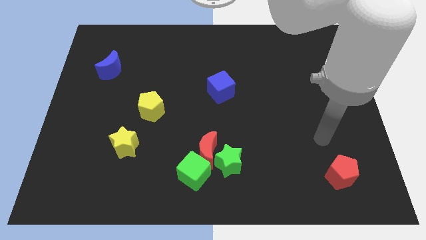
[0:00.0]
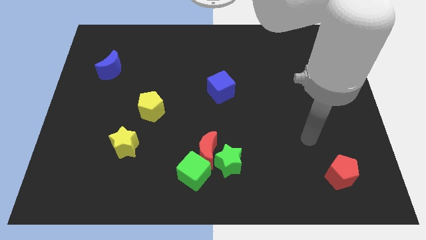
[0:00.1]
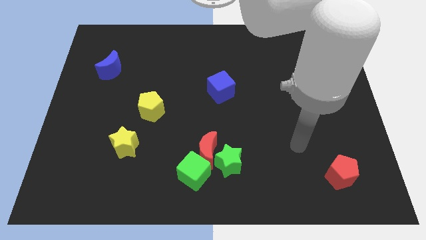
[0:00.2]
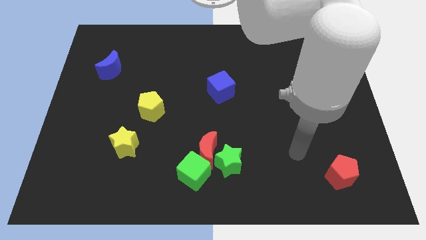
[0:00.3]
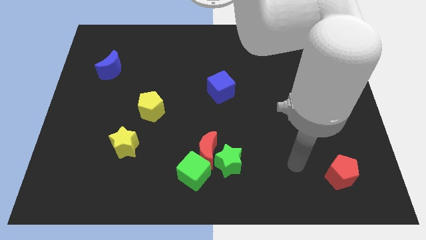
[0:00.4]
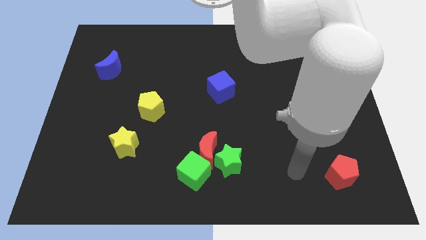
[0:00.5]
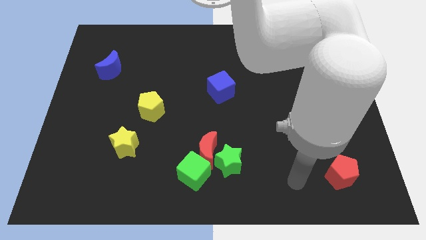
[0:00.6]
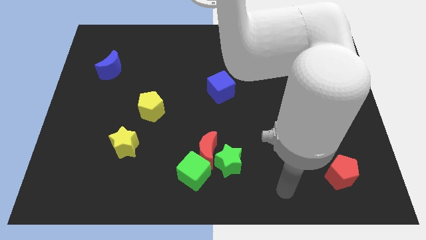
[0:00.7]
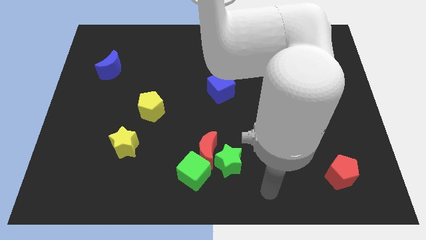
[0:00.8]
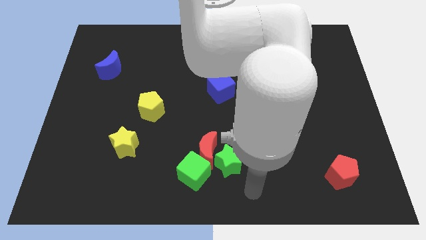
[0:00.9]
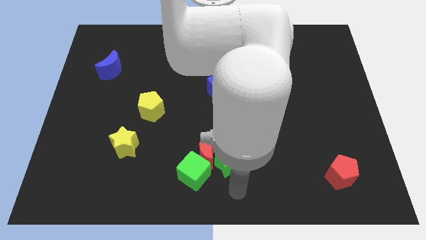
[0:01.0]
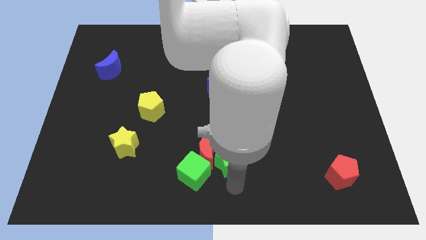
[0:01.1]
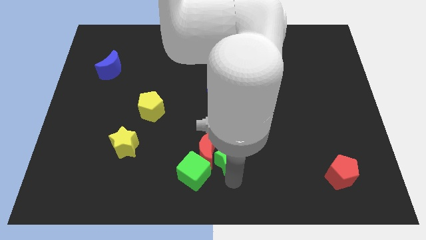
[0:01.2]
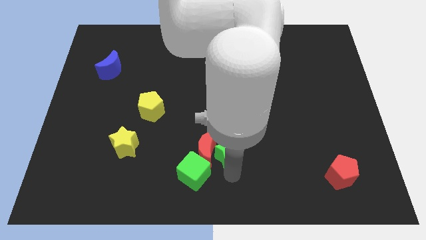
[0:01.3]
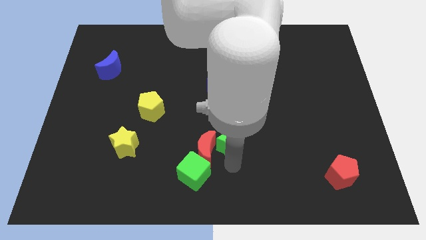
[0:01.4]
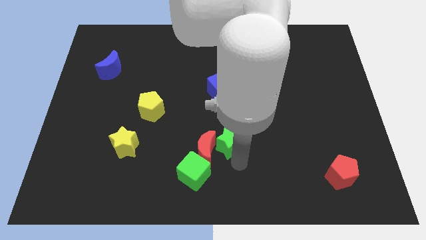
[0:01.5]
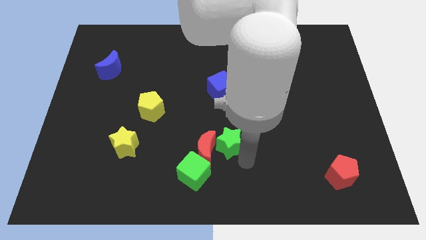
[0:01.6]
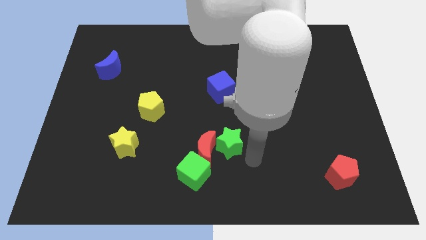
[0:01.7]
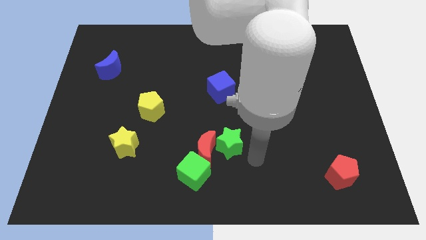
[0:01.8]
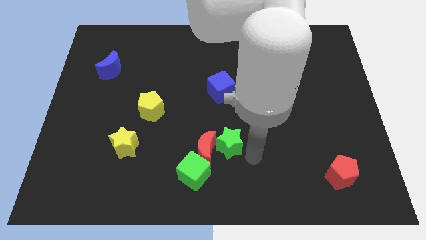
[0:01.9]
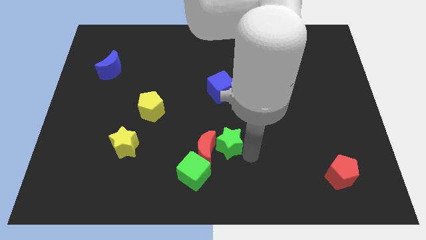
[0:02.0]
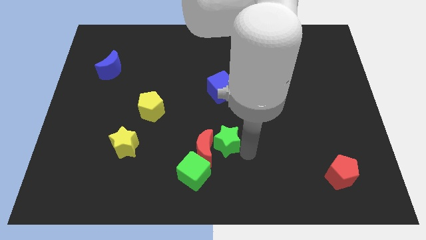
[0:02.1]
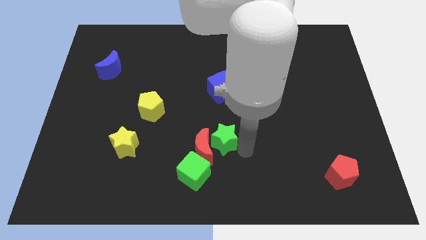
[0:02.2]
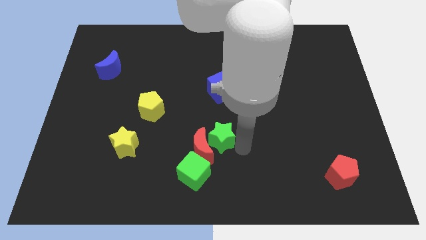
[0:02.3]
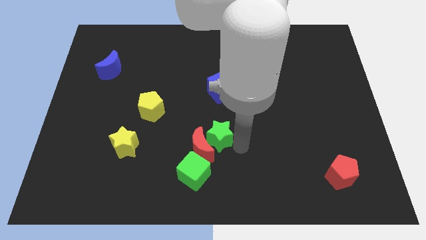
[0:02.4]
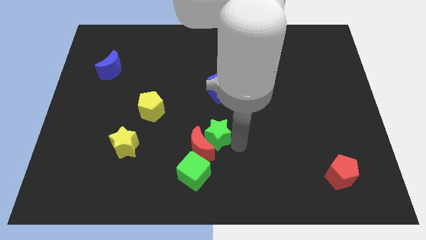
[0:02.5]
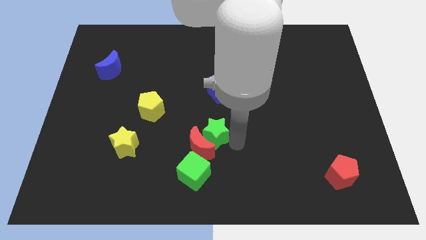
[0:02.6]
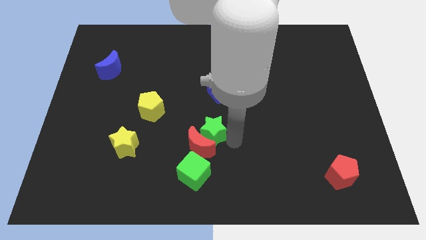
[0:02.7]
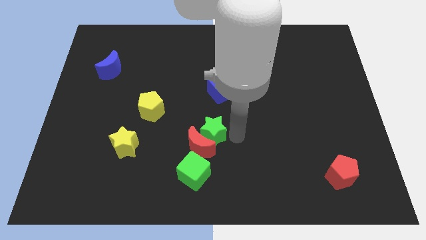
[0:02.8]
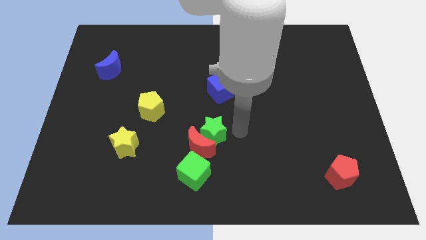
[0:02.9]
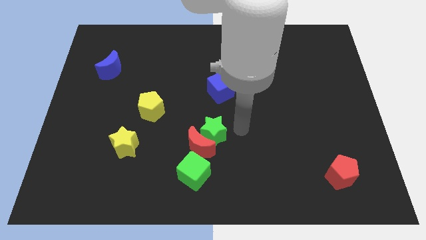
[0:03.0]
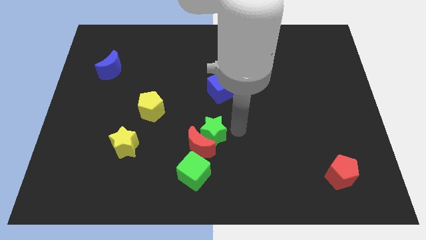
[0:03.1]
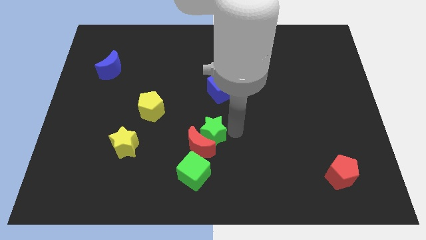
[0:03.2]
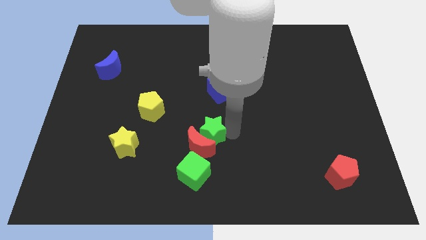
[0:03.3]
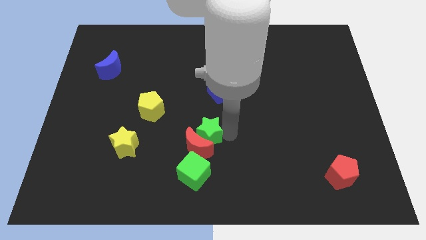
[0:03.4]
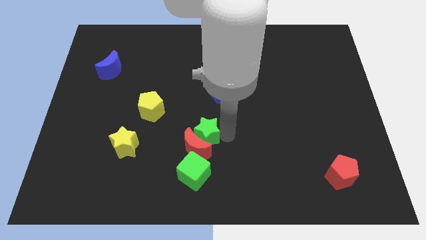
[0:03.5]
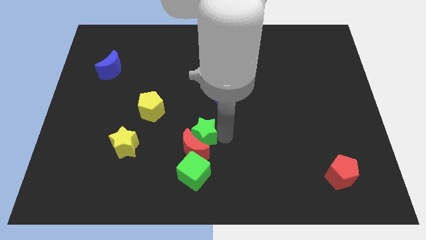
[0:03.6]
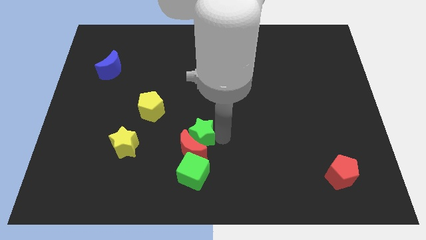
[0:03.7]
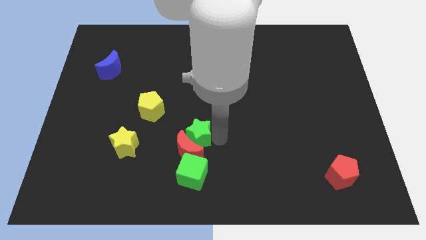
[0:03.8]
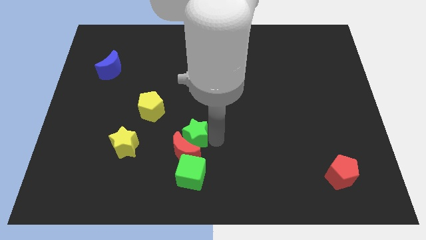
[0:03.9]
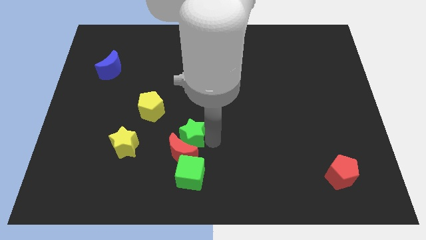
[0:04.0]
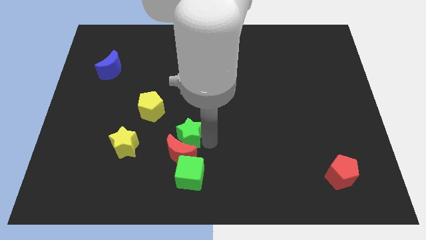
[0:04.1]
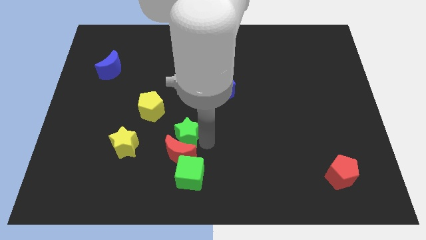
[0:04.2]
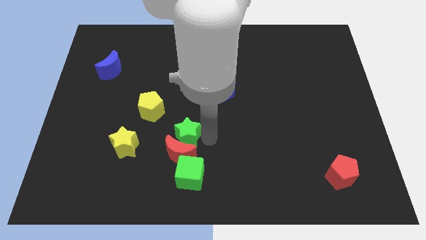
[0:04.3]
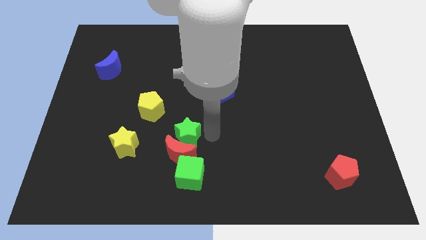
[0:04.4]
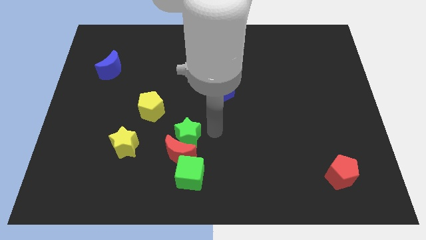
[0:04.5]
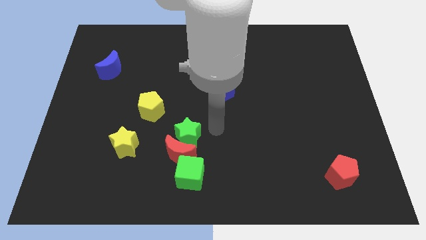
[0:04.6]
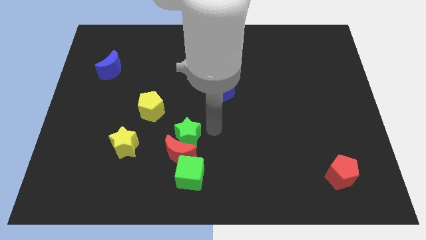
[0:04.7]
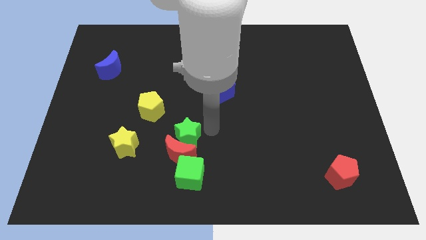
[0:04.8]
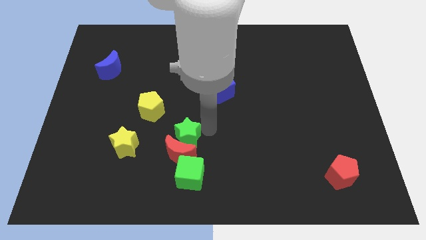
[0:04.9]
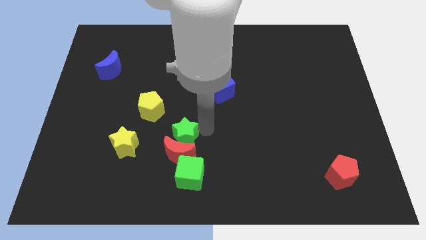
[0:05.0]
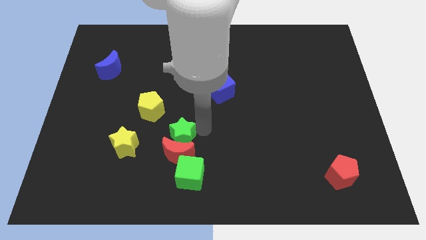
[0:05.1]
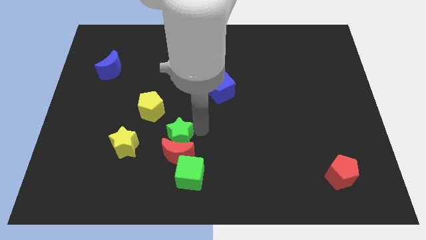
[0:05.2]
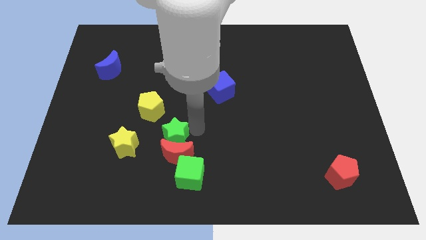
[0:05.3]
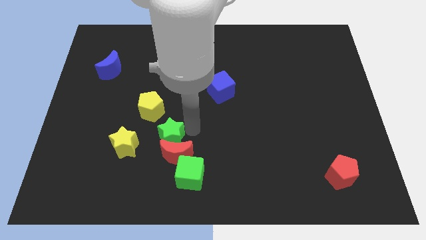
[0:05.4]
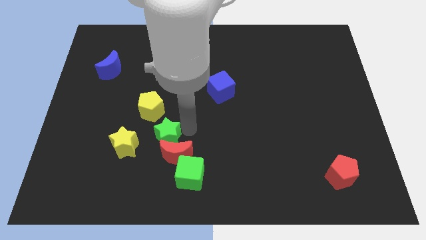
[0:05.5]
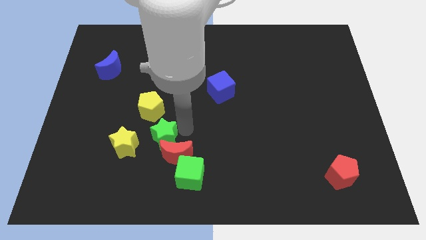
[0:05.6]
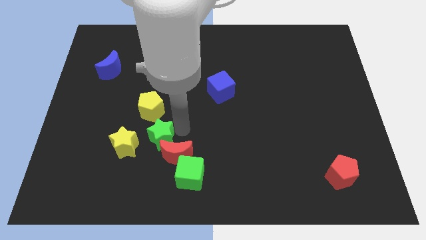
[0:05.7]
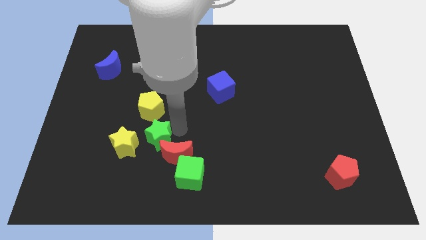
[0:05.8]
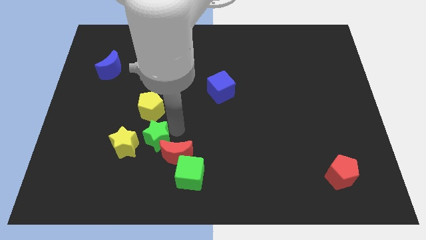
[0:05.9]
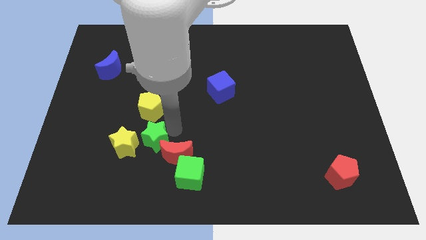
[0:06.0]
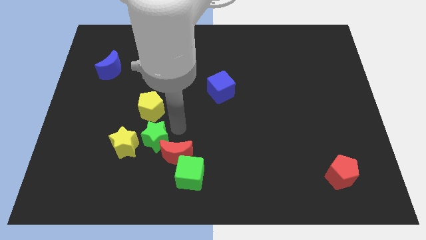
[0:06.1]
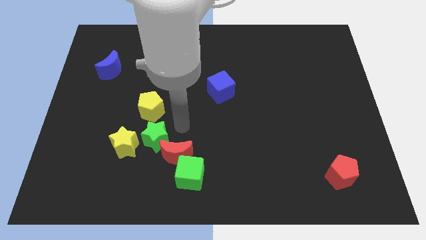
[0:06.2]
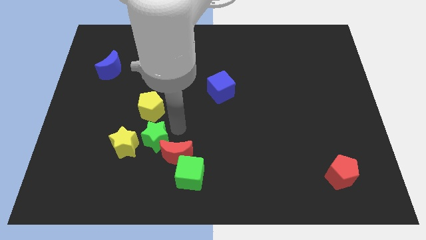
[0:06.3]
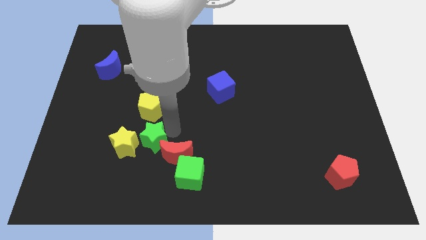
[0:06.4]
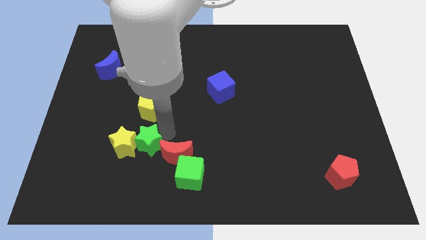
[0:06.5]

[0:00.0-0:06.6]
slide the green star next to the yellow star
